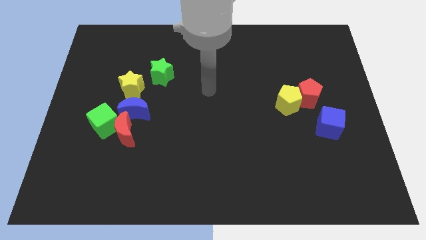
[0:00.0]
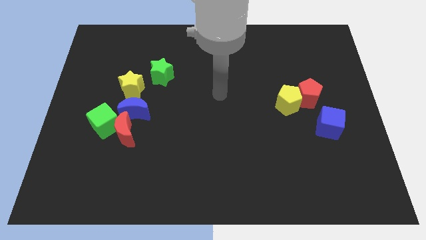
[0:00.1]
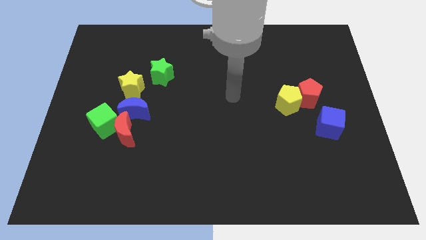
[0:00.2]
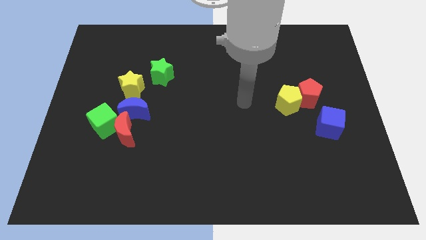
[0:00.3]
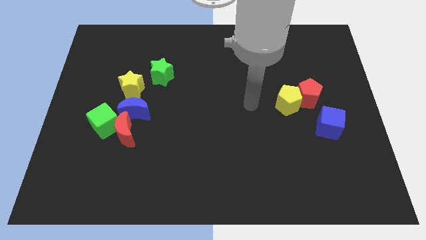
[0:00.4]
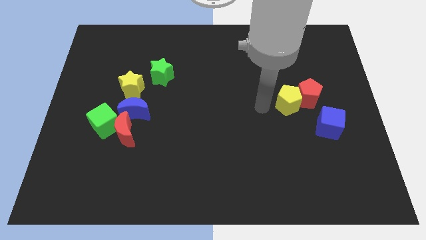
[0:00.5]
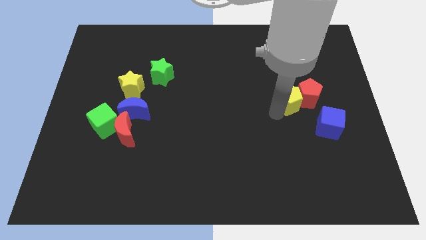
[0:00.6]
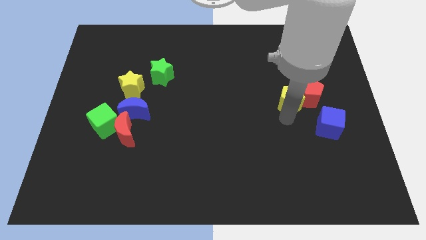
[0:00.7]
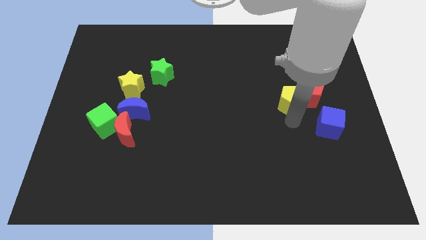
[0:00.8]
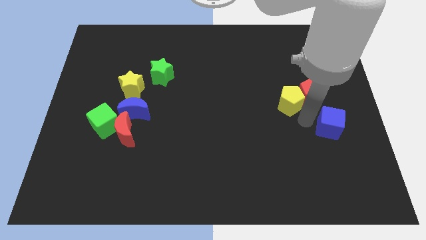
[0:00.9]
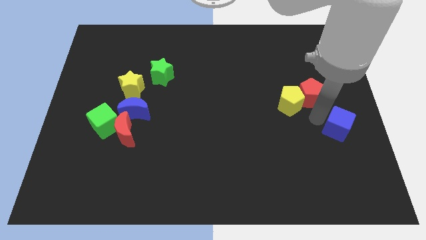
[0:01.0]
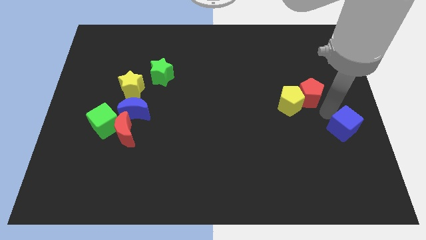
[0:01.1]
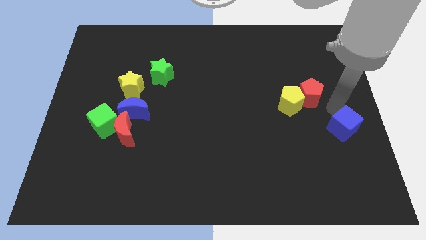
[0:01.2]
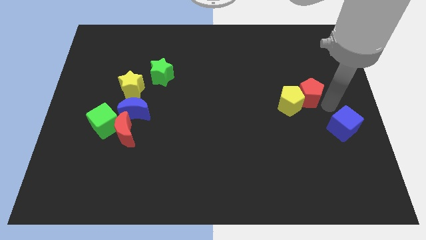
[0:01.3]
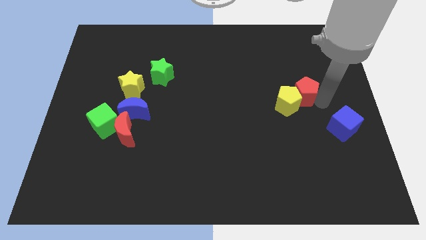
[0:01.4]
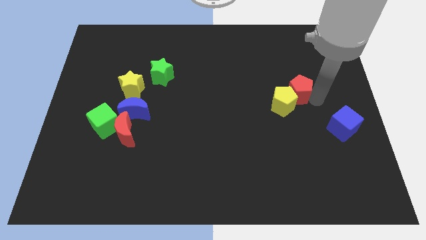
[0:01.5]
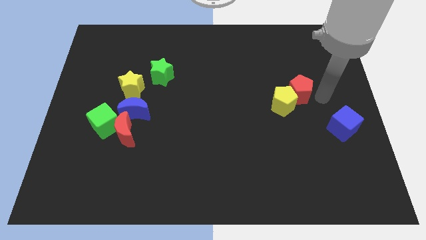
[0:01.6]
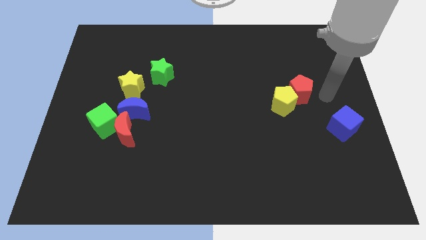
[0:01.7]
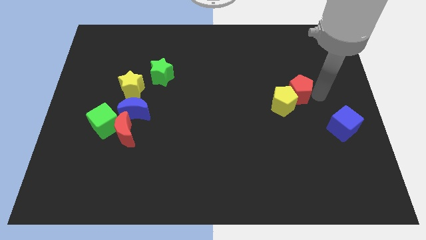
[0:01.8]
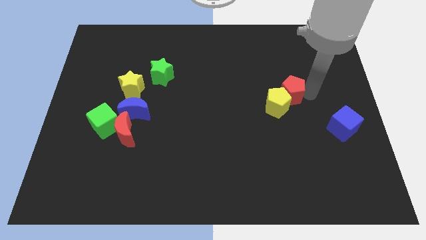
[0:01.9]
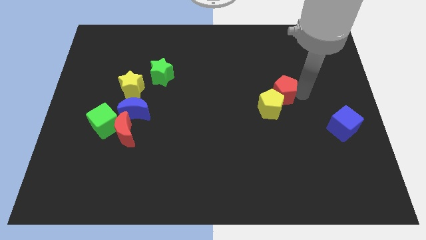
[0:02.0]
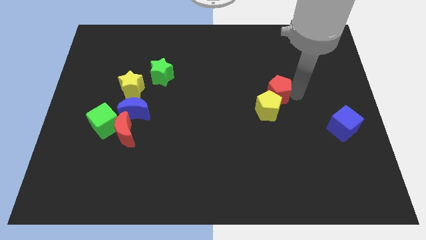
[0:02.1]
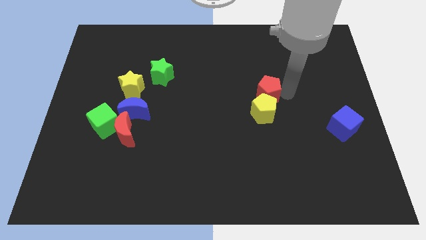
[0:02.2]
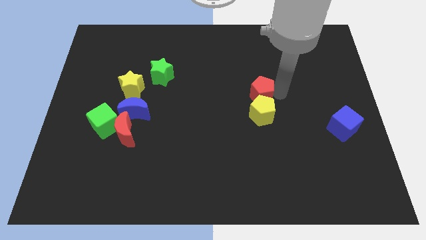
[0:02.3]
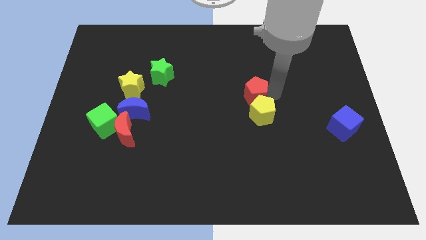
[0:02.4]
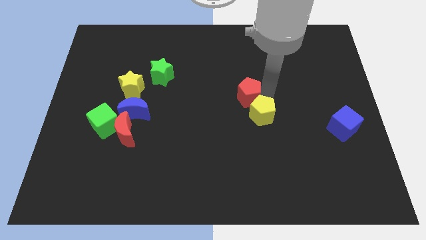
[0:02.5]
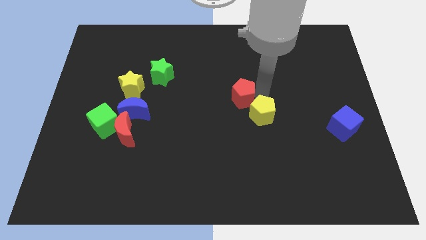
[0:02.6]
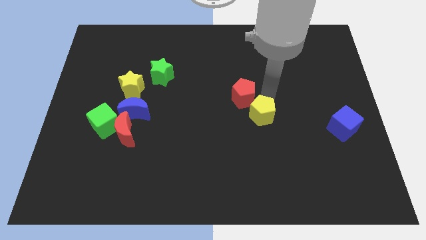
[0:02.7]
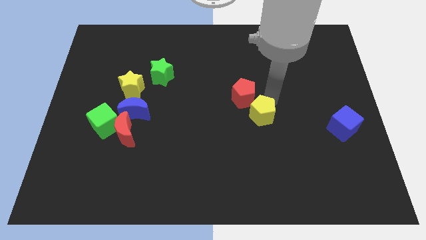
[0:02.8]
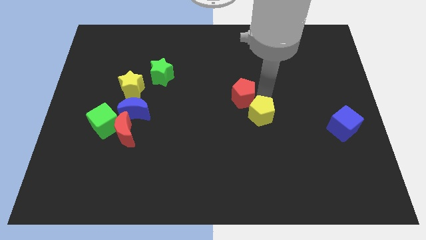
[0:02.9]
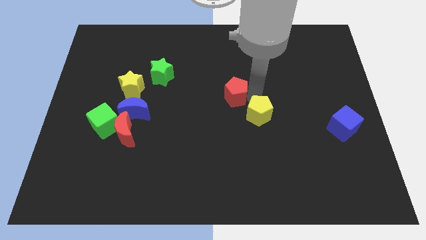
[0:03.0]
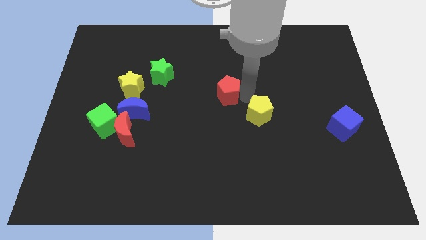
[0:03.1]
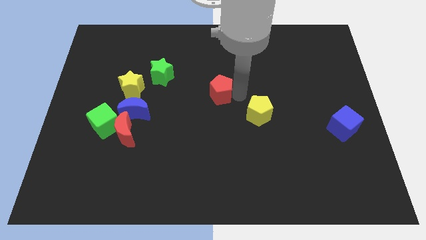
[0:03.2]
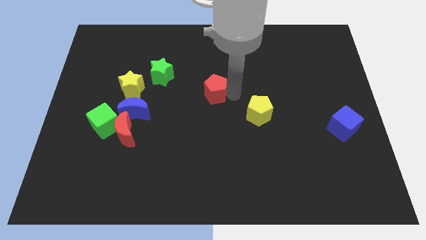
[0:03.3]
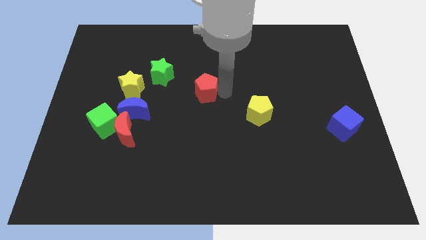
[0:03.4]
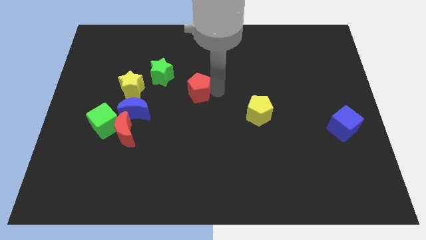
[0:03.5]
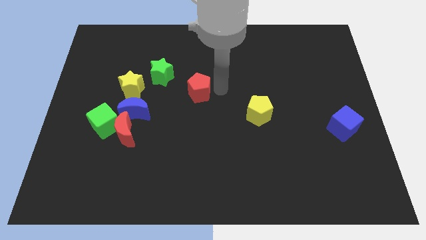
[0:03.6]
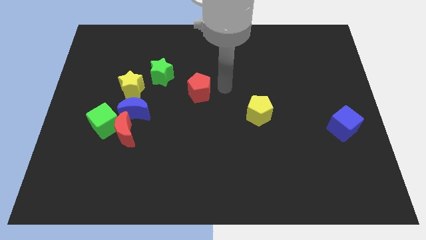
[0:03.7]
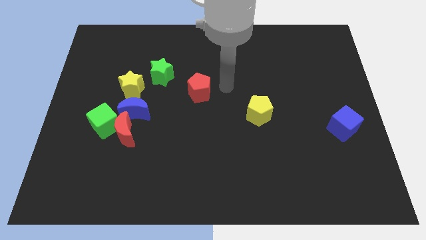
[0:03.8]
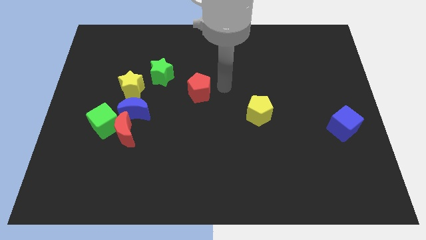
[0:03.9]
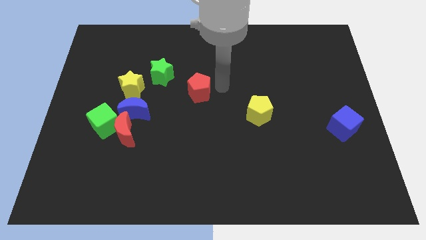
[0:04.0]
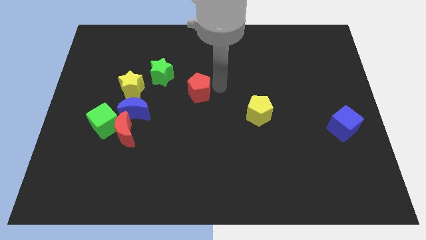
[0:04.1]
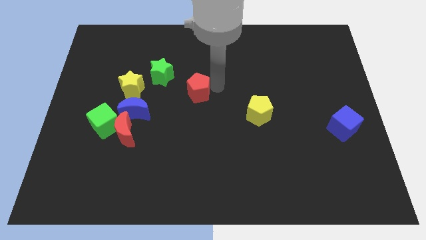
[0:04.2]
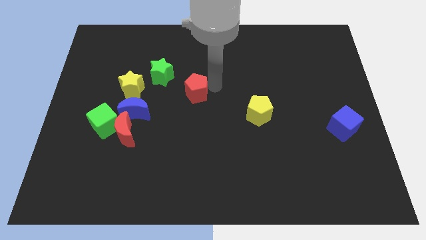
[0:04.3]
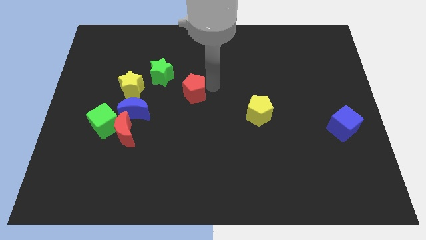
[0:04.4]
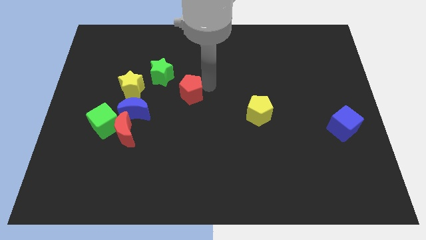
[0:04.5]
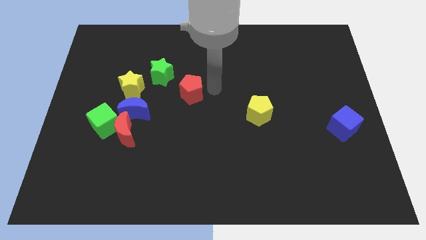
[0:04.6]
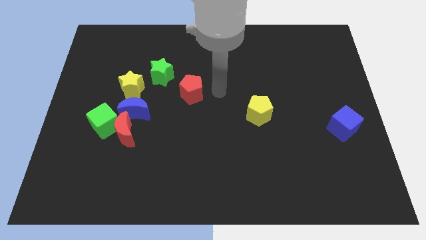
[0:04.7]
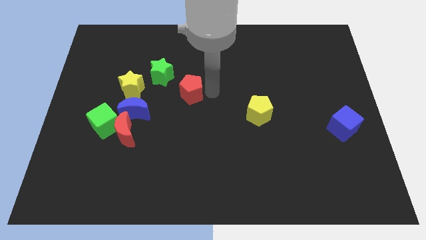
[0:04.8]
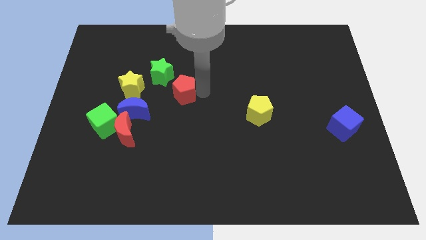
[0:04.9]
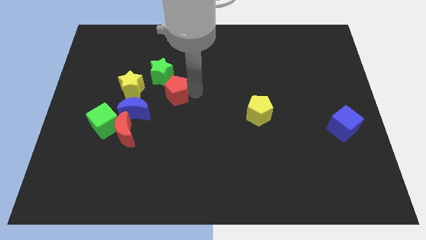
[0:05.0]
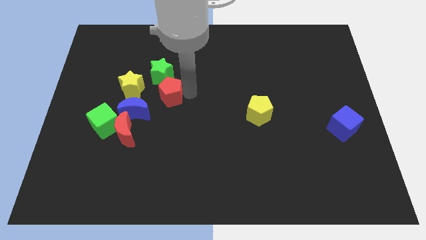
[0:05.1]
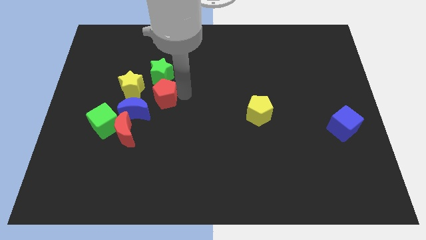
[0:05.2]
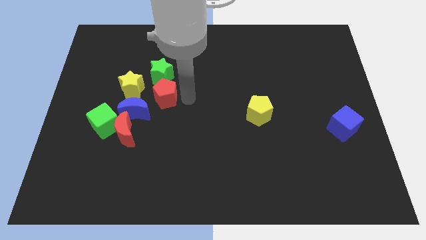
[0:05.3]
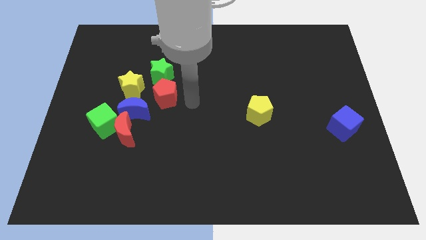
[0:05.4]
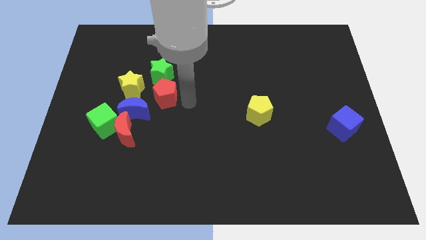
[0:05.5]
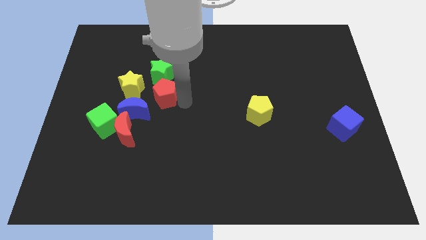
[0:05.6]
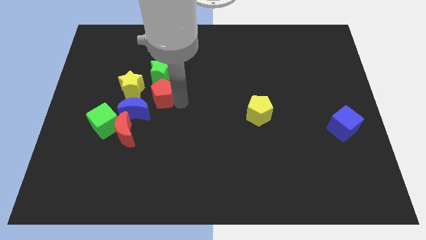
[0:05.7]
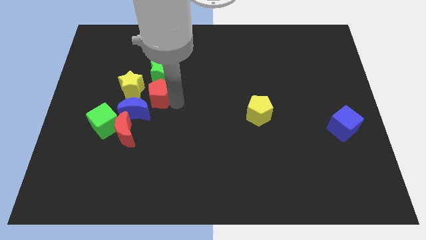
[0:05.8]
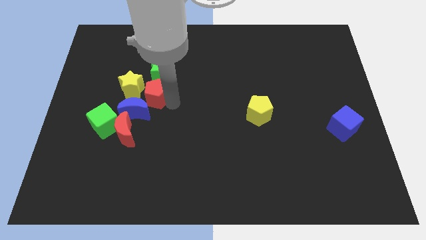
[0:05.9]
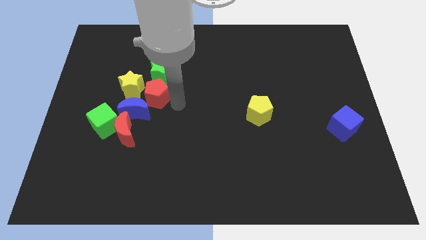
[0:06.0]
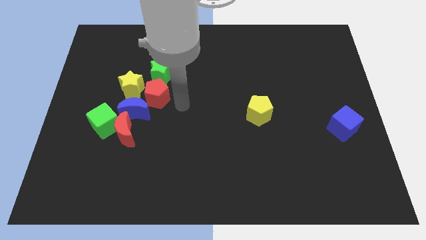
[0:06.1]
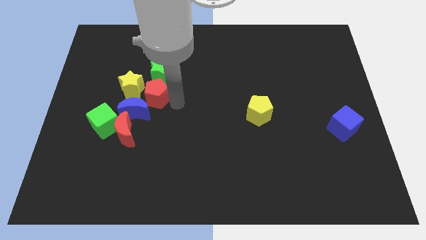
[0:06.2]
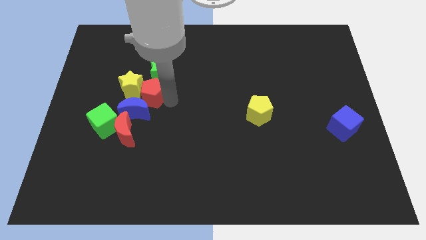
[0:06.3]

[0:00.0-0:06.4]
slide the red pentagon close to the yellow star

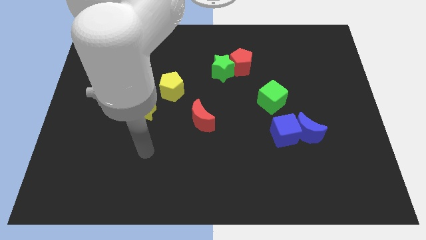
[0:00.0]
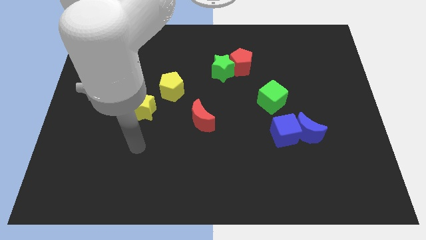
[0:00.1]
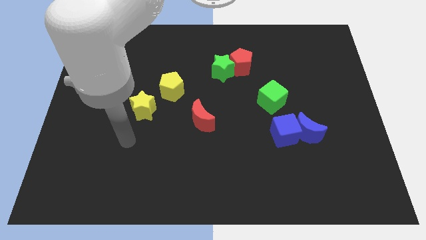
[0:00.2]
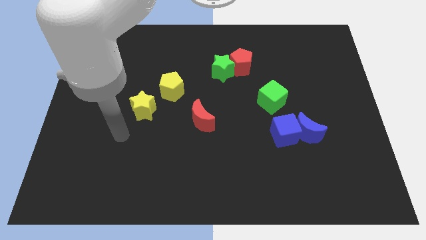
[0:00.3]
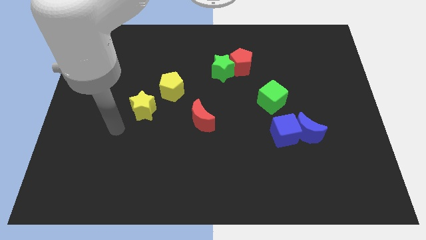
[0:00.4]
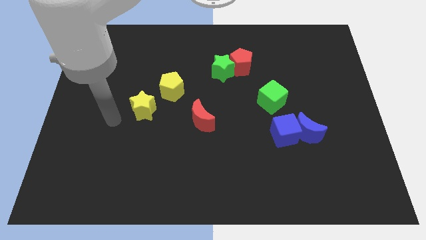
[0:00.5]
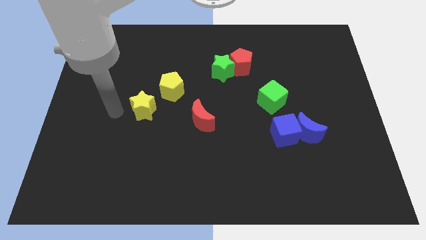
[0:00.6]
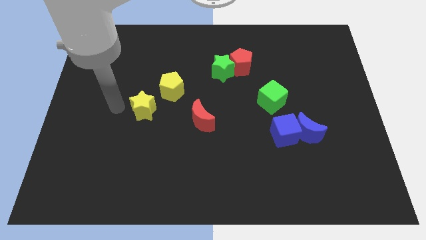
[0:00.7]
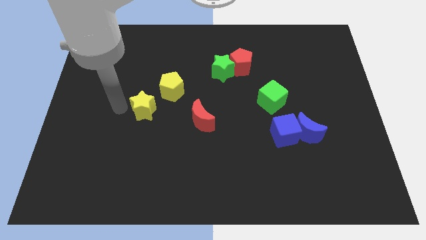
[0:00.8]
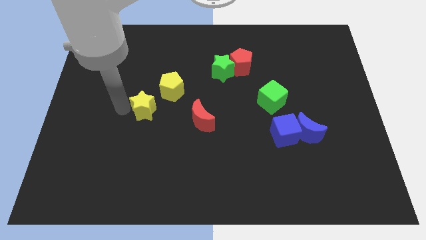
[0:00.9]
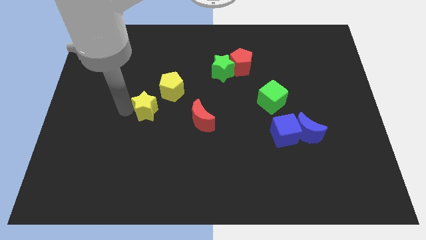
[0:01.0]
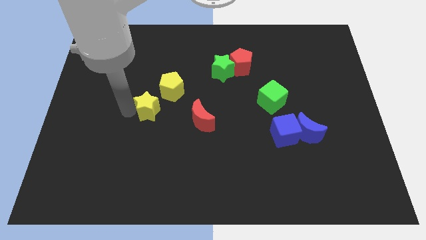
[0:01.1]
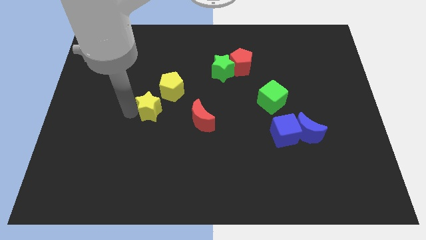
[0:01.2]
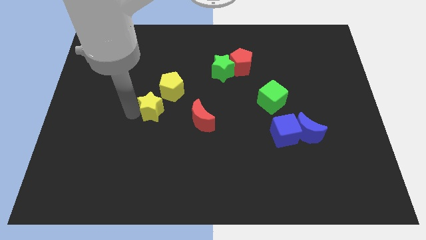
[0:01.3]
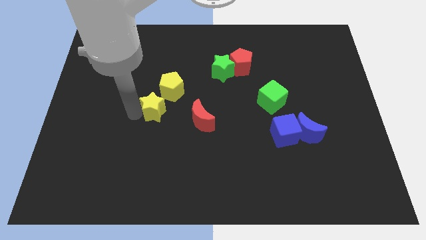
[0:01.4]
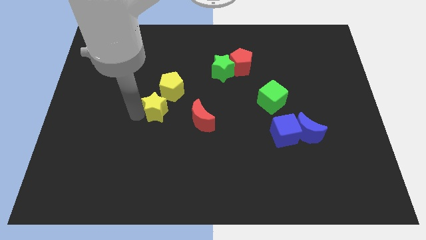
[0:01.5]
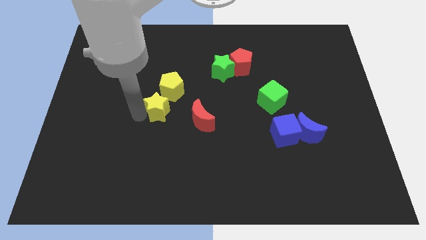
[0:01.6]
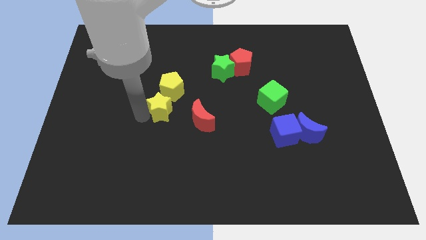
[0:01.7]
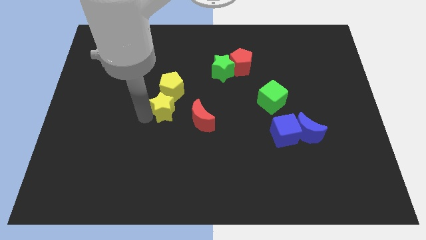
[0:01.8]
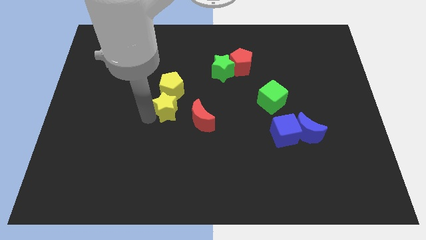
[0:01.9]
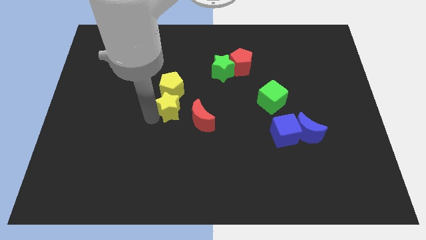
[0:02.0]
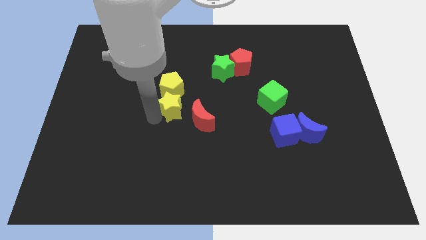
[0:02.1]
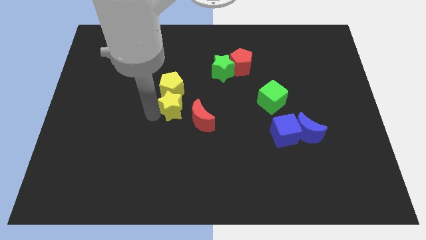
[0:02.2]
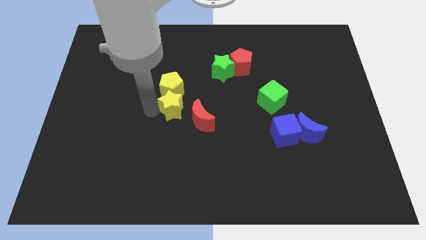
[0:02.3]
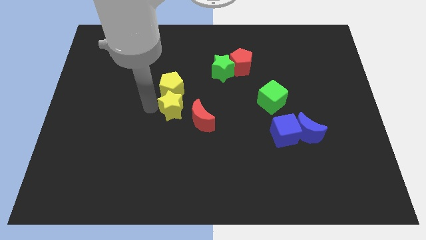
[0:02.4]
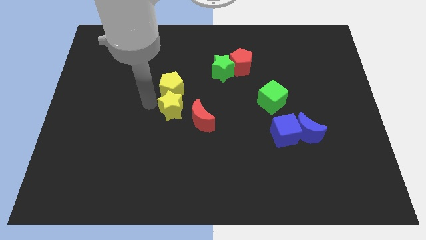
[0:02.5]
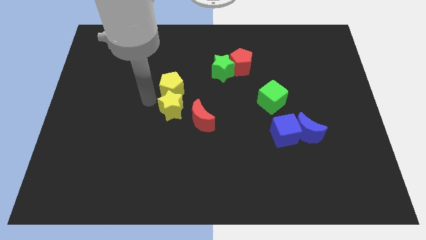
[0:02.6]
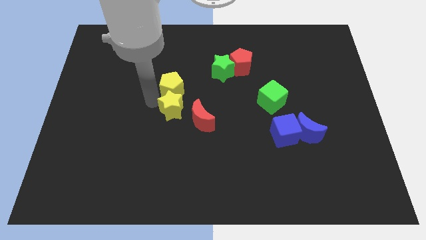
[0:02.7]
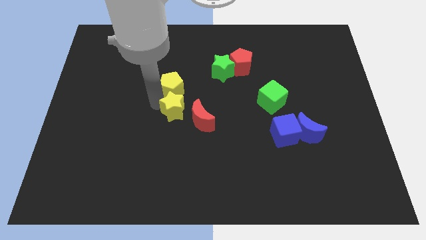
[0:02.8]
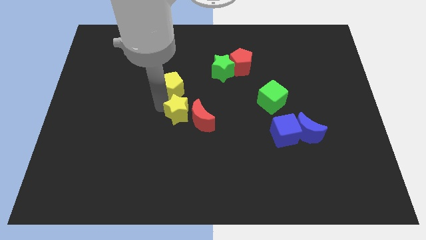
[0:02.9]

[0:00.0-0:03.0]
put the yellow star next to the red moon
